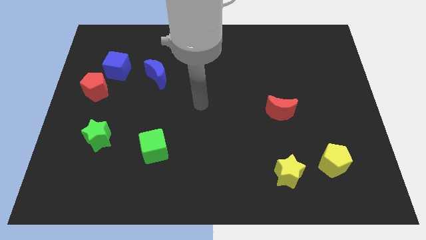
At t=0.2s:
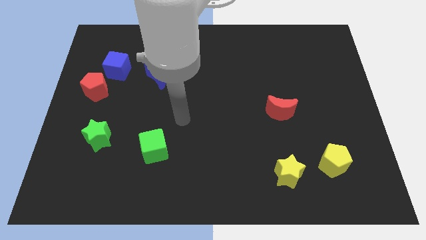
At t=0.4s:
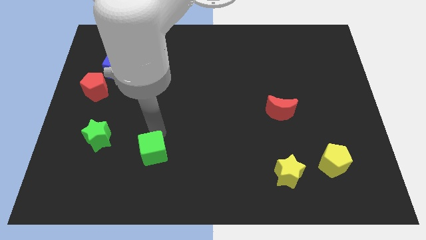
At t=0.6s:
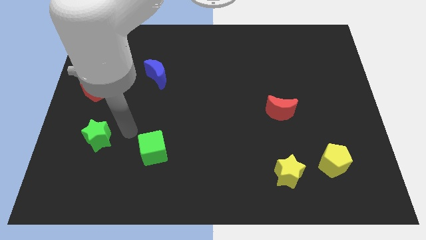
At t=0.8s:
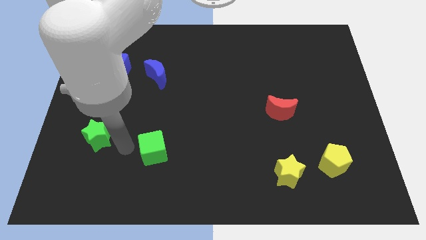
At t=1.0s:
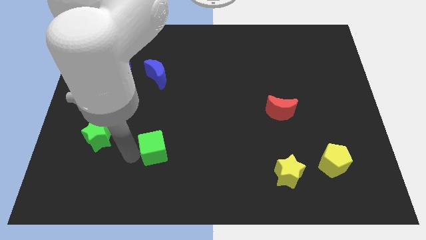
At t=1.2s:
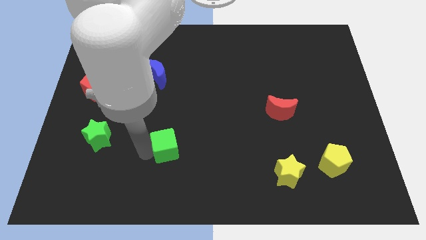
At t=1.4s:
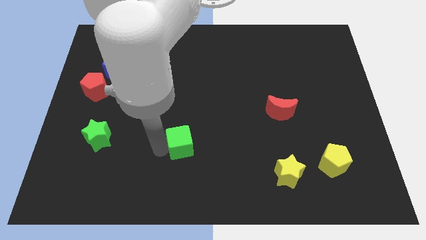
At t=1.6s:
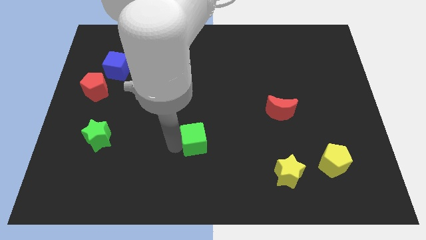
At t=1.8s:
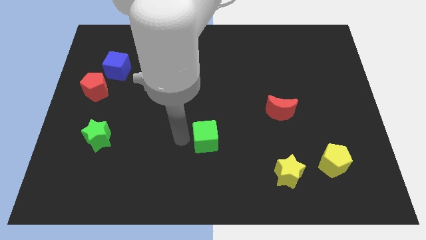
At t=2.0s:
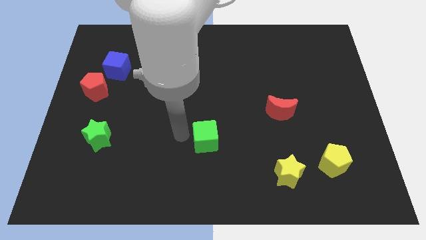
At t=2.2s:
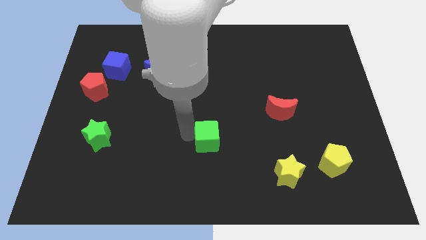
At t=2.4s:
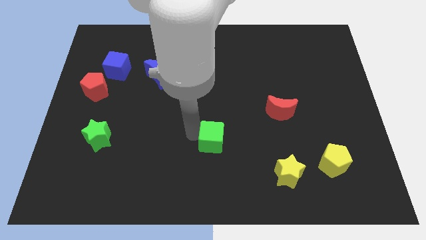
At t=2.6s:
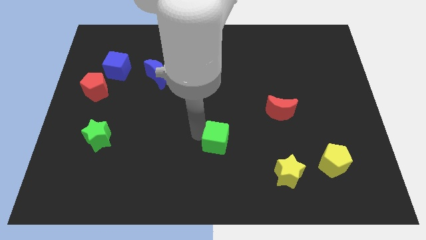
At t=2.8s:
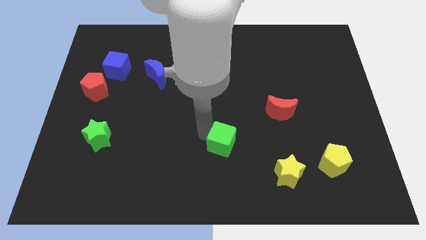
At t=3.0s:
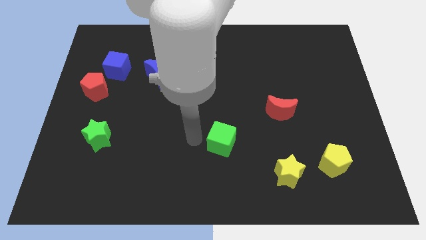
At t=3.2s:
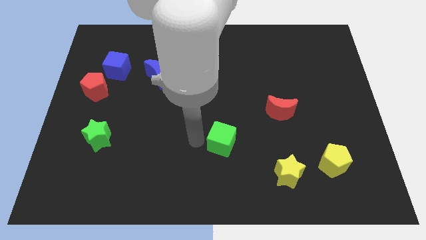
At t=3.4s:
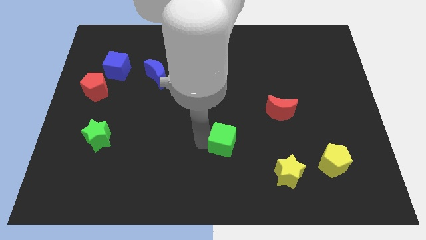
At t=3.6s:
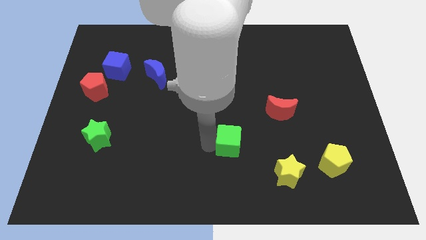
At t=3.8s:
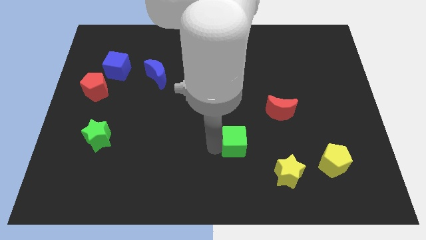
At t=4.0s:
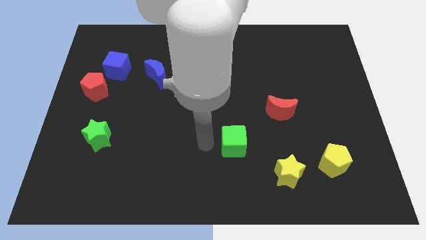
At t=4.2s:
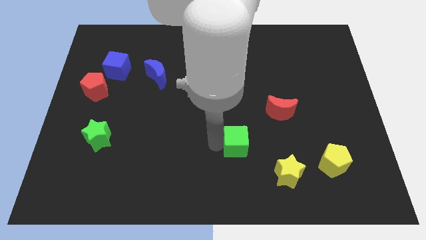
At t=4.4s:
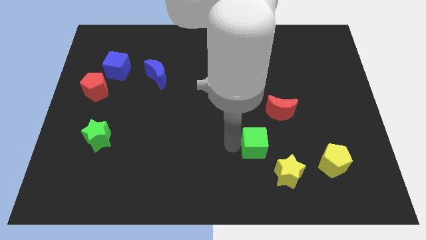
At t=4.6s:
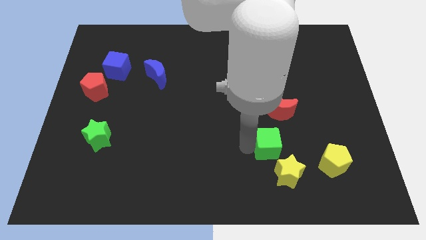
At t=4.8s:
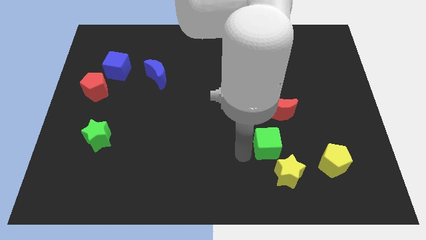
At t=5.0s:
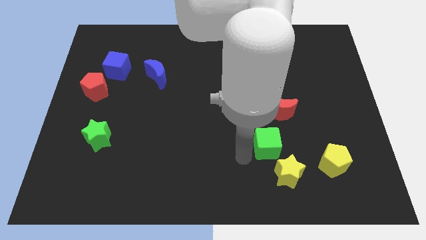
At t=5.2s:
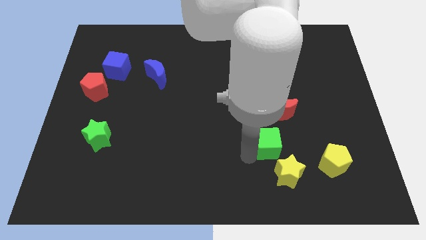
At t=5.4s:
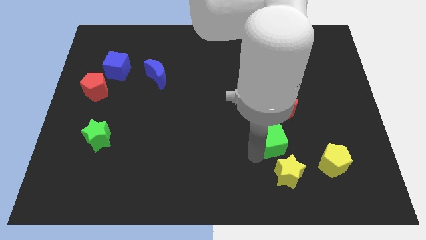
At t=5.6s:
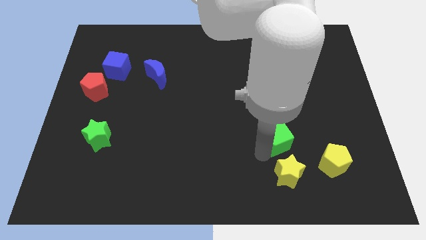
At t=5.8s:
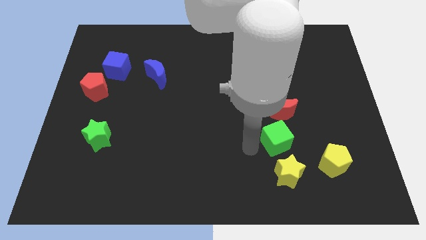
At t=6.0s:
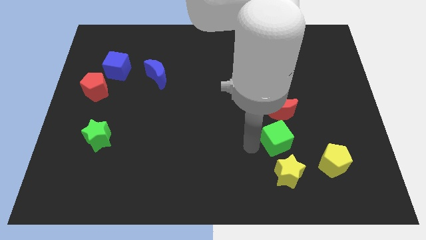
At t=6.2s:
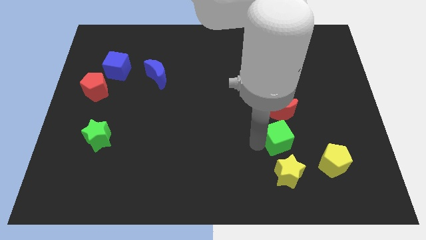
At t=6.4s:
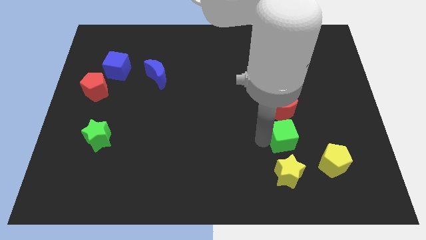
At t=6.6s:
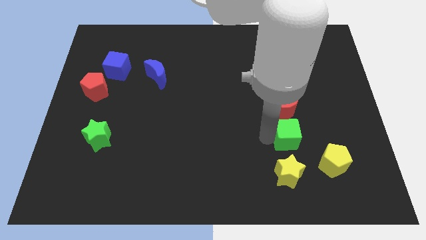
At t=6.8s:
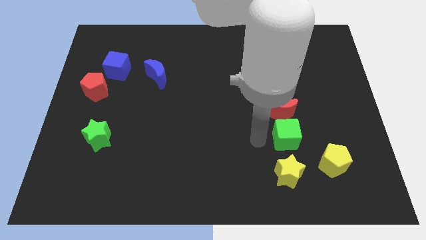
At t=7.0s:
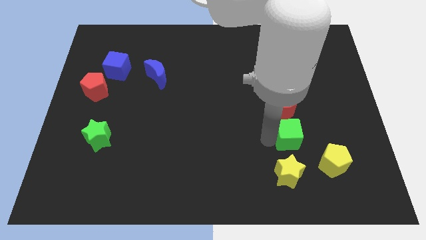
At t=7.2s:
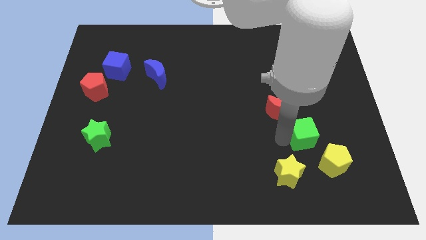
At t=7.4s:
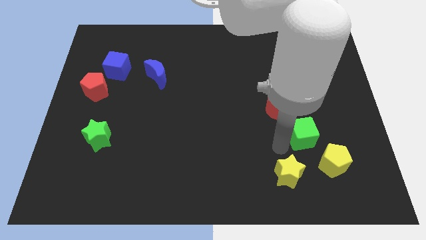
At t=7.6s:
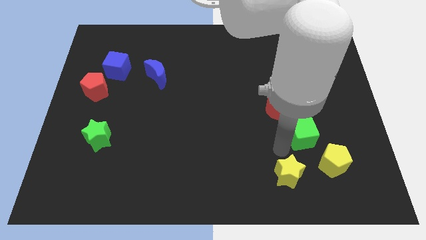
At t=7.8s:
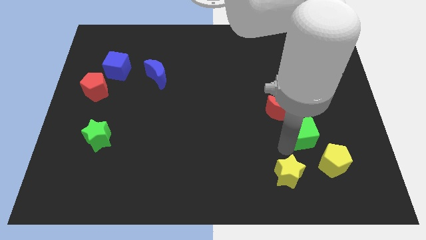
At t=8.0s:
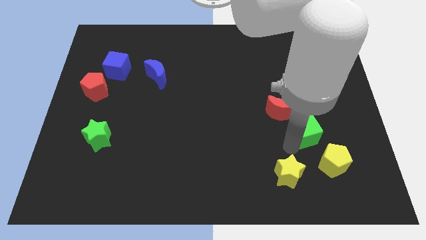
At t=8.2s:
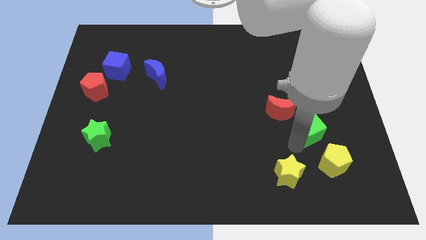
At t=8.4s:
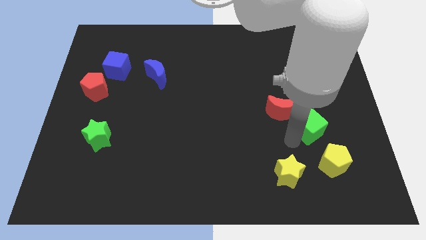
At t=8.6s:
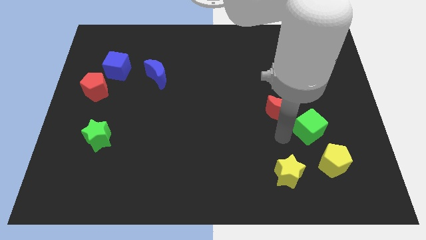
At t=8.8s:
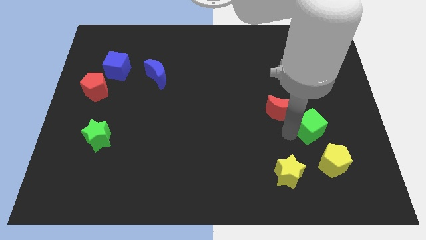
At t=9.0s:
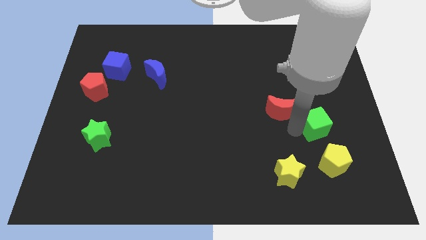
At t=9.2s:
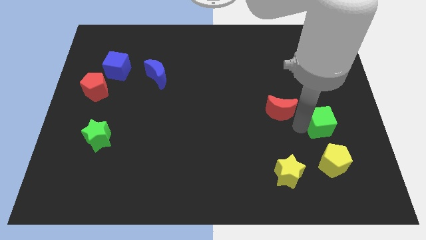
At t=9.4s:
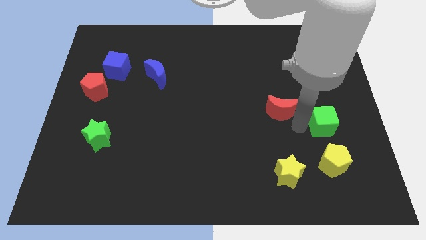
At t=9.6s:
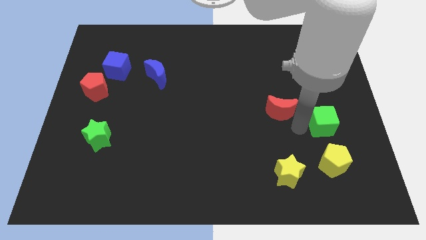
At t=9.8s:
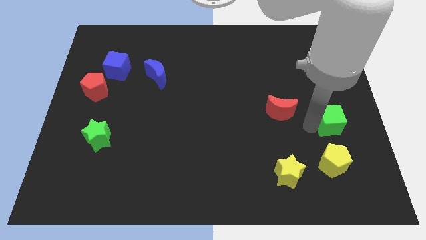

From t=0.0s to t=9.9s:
slide the green cube to the right side of the board

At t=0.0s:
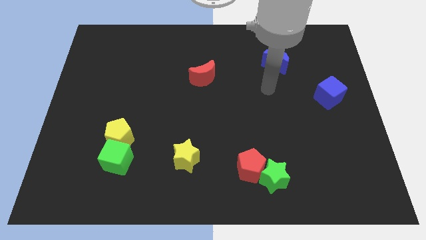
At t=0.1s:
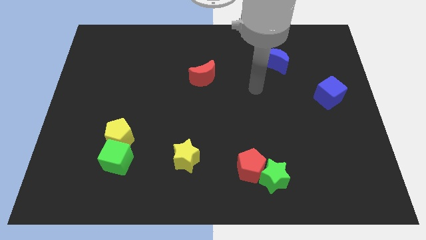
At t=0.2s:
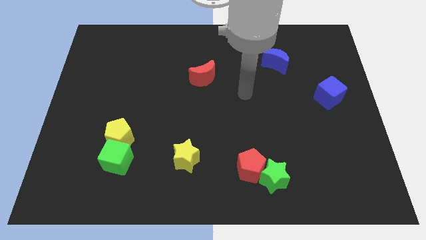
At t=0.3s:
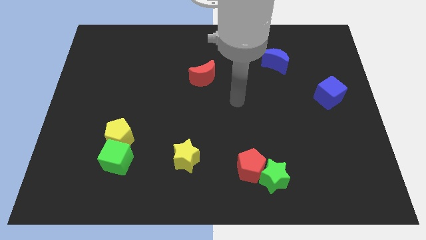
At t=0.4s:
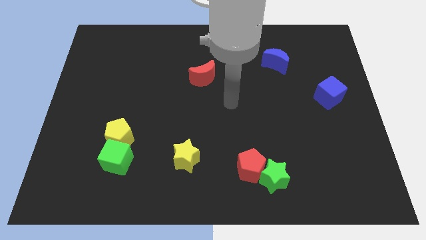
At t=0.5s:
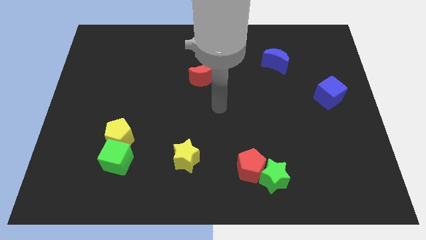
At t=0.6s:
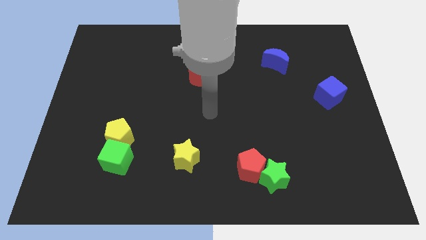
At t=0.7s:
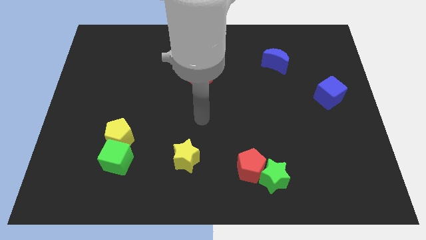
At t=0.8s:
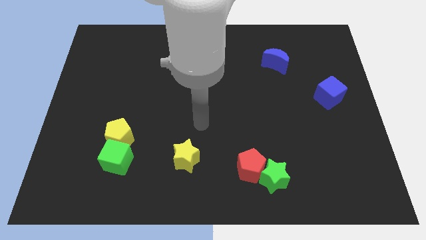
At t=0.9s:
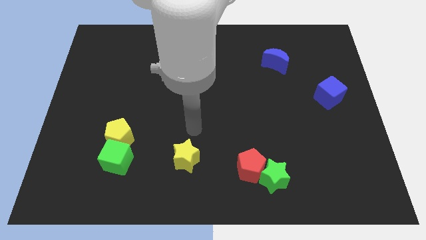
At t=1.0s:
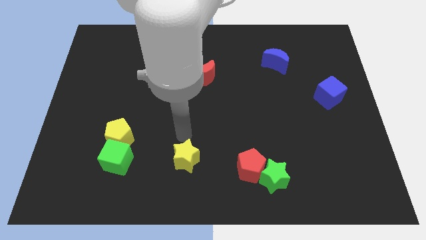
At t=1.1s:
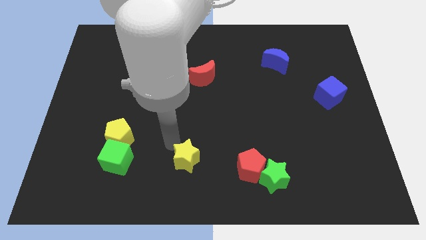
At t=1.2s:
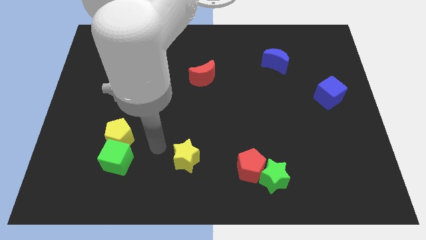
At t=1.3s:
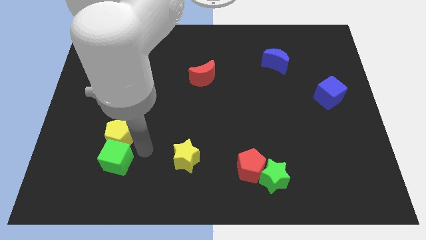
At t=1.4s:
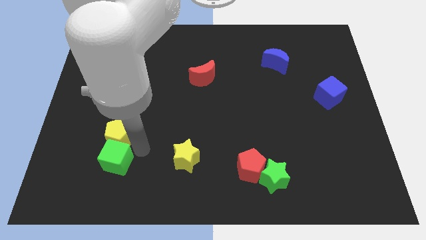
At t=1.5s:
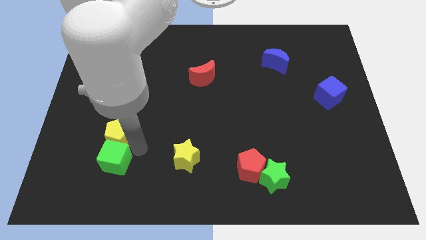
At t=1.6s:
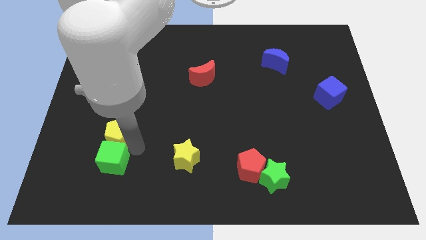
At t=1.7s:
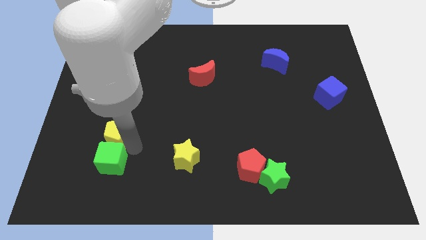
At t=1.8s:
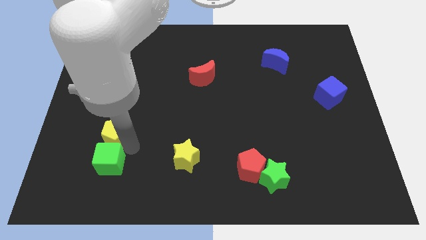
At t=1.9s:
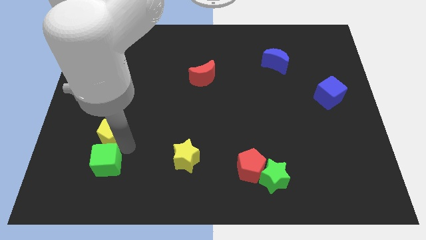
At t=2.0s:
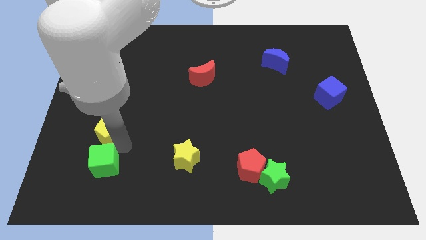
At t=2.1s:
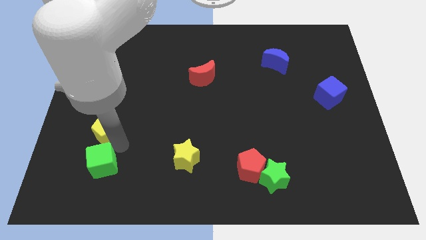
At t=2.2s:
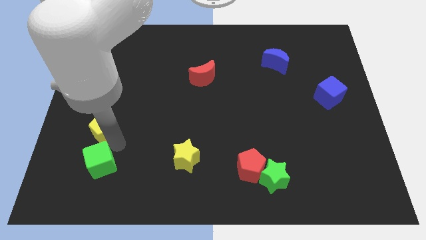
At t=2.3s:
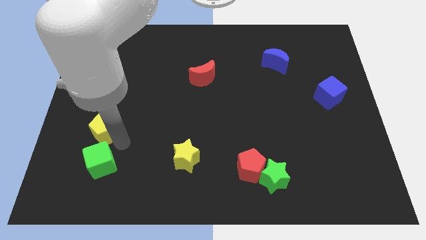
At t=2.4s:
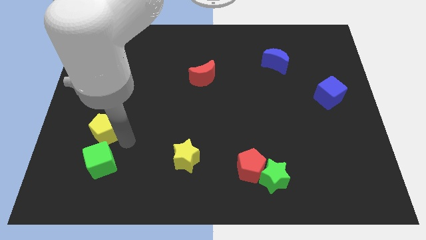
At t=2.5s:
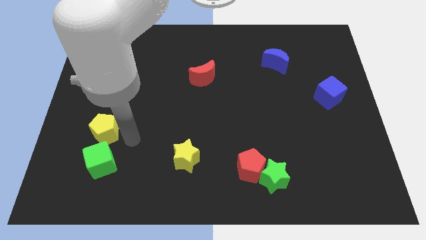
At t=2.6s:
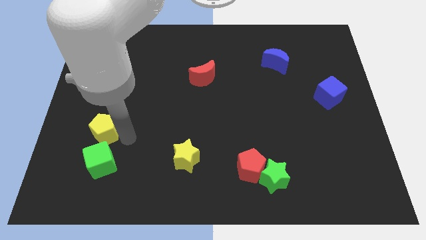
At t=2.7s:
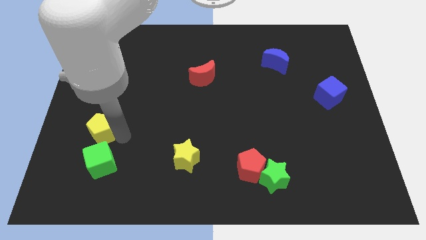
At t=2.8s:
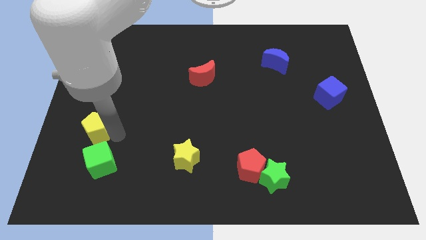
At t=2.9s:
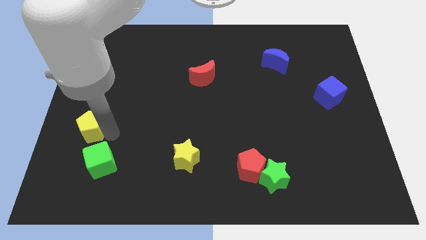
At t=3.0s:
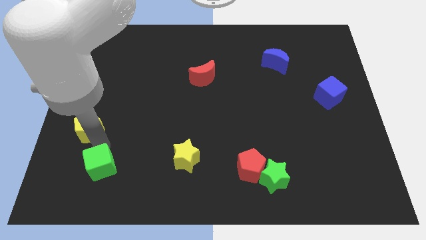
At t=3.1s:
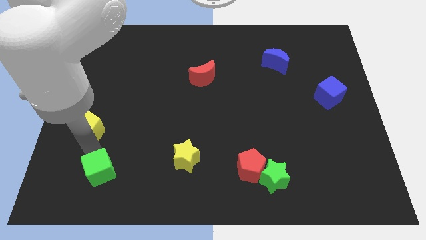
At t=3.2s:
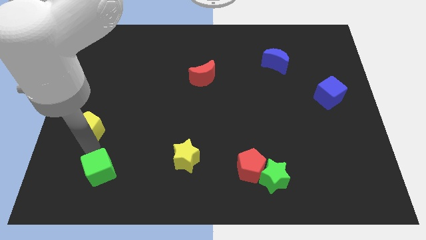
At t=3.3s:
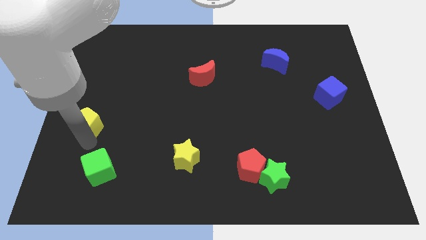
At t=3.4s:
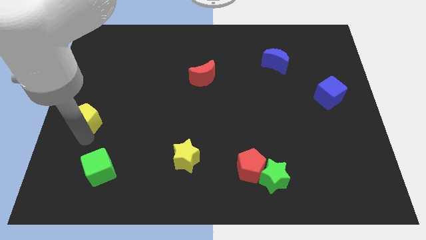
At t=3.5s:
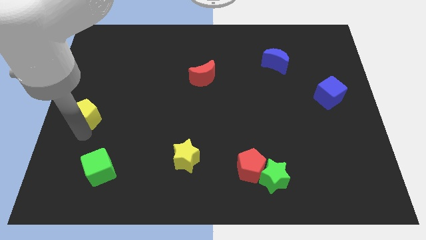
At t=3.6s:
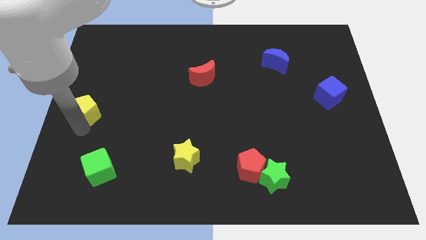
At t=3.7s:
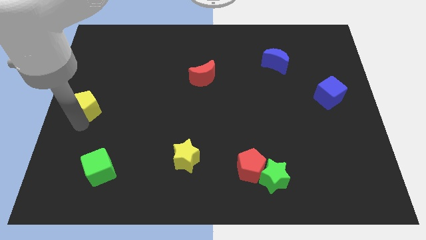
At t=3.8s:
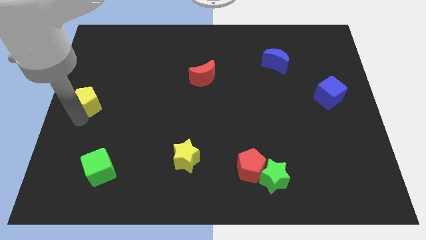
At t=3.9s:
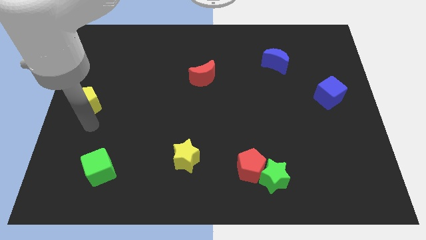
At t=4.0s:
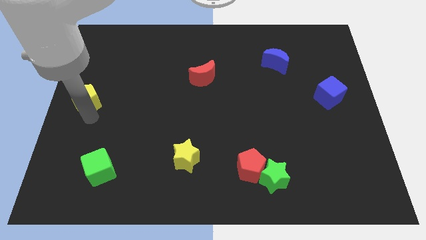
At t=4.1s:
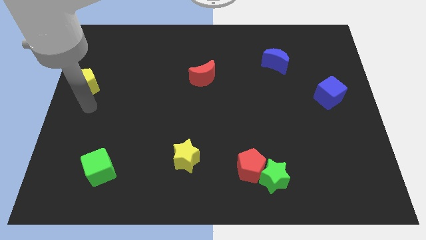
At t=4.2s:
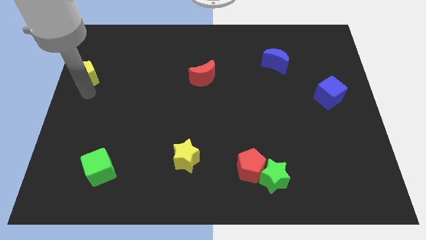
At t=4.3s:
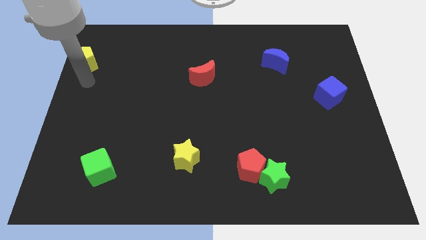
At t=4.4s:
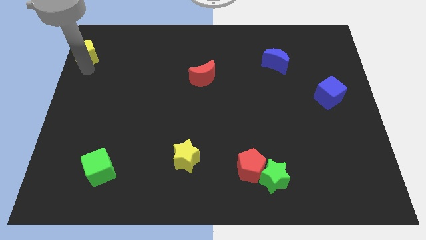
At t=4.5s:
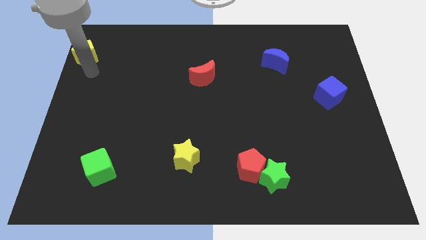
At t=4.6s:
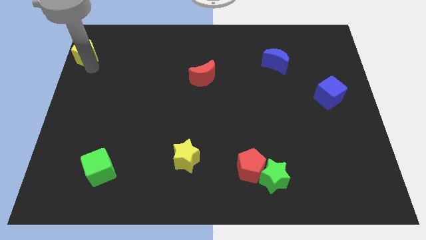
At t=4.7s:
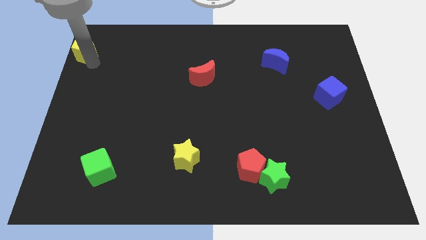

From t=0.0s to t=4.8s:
put the yellow pentagon to the top left of the board
